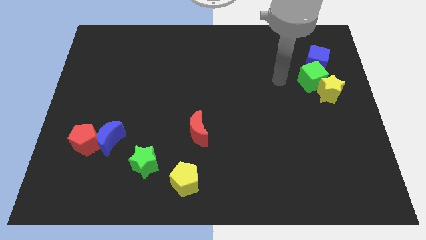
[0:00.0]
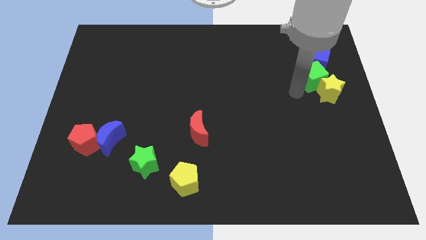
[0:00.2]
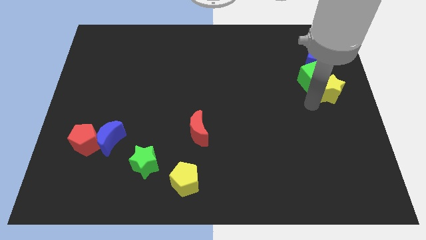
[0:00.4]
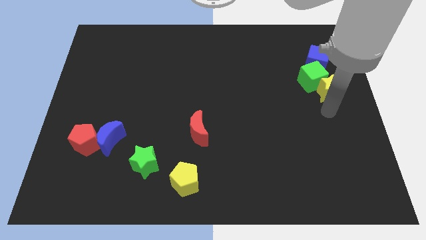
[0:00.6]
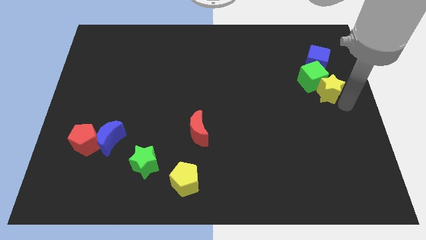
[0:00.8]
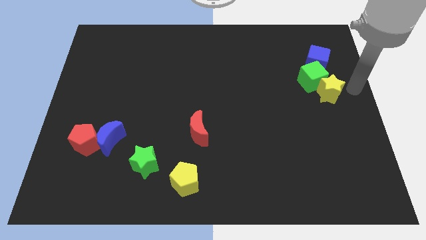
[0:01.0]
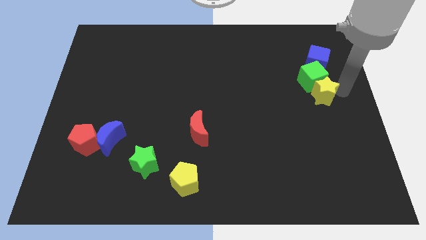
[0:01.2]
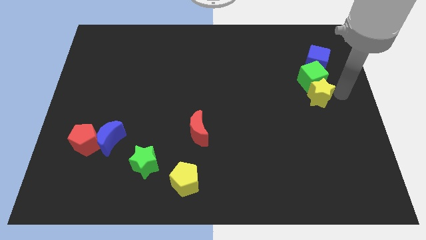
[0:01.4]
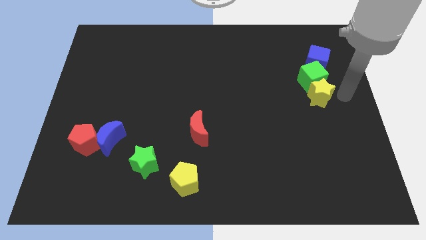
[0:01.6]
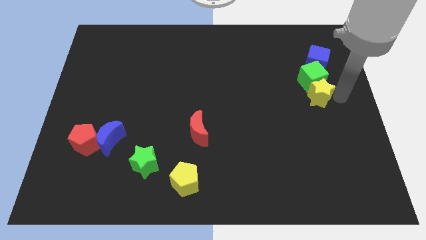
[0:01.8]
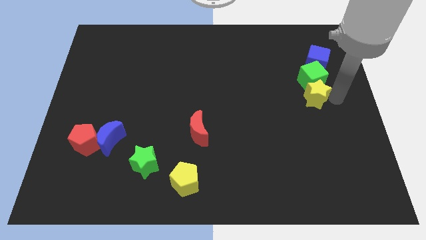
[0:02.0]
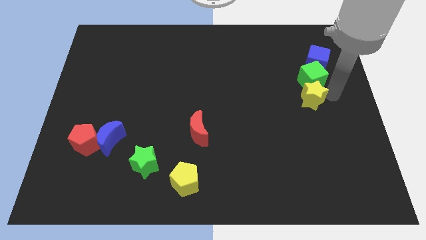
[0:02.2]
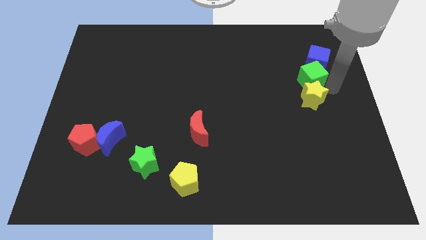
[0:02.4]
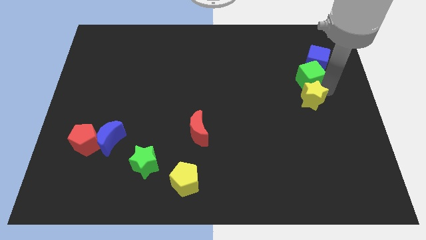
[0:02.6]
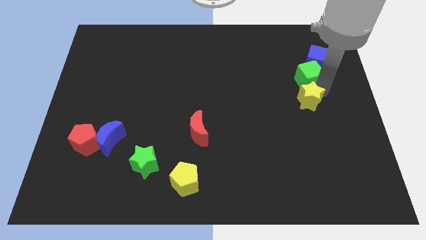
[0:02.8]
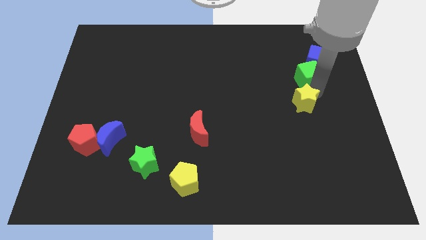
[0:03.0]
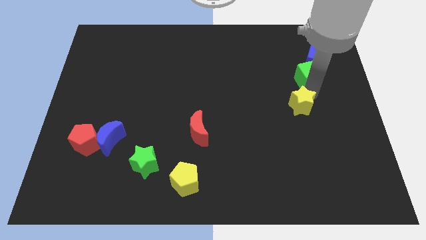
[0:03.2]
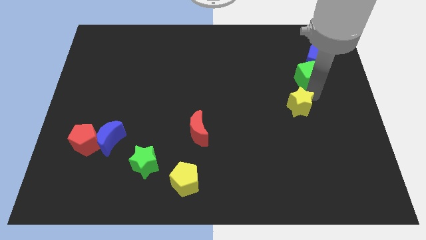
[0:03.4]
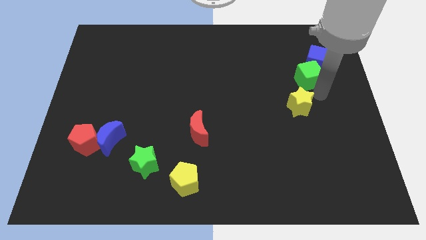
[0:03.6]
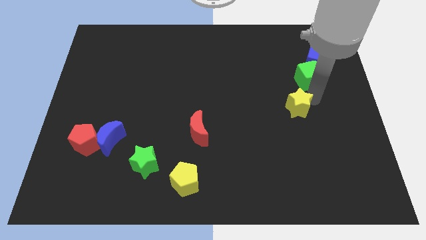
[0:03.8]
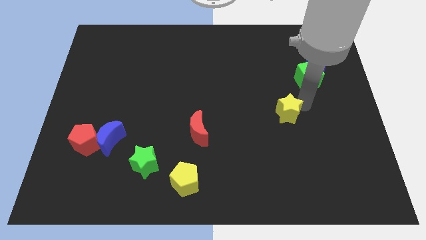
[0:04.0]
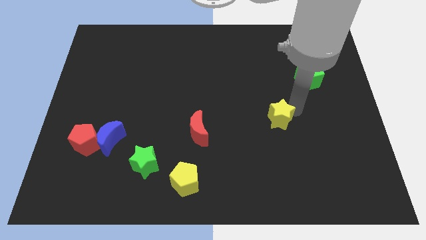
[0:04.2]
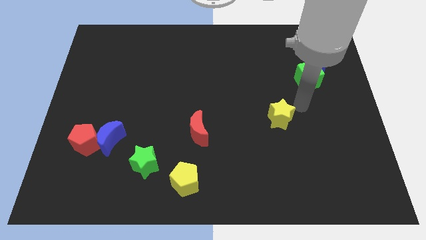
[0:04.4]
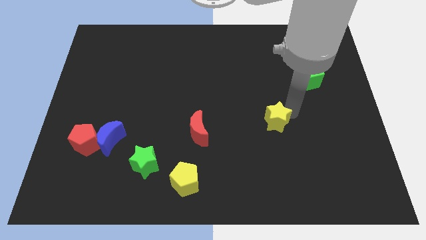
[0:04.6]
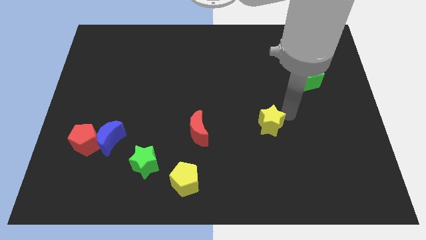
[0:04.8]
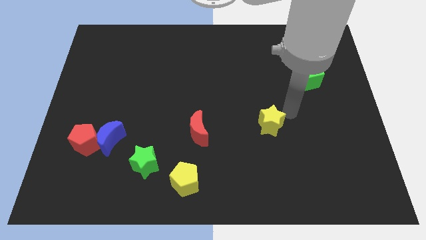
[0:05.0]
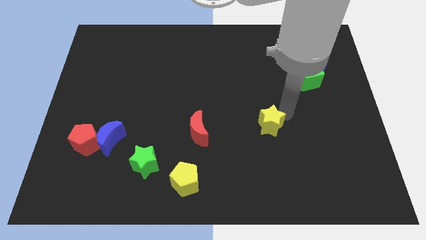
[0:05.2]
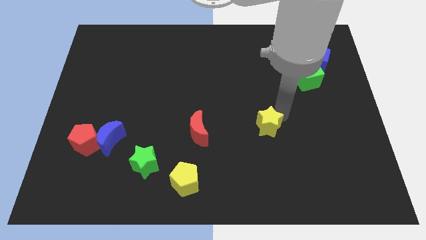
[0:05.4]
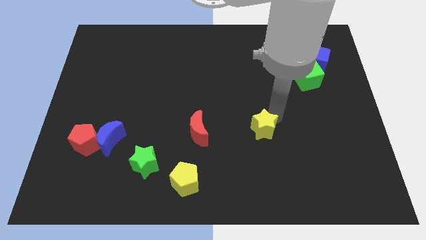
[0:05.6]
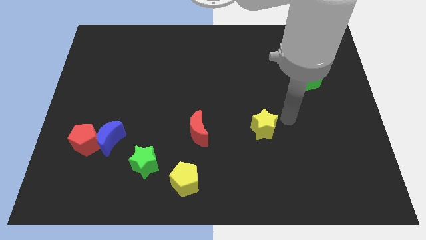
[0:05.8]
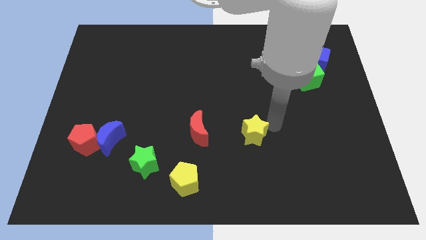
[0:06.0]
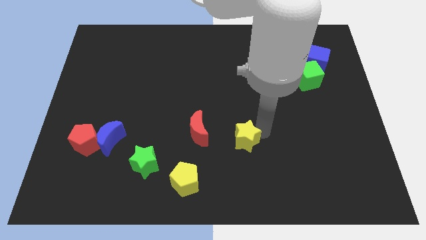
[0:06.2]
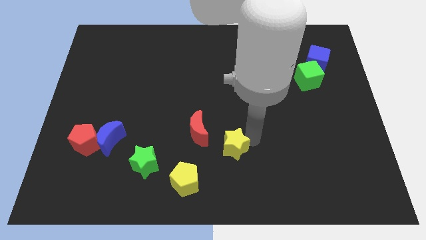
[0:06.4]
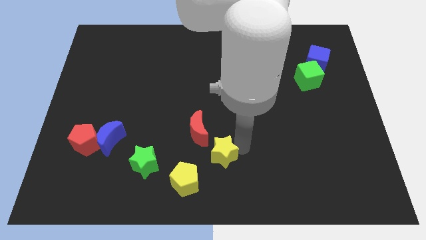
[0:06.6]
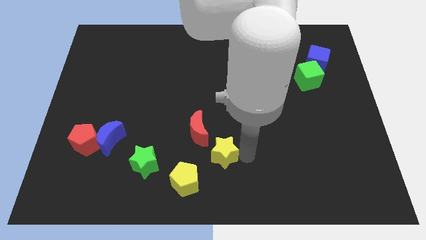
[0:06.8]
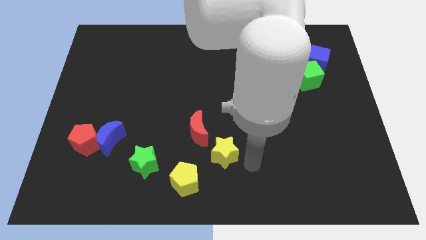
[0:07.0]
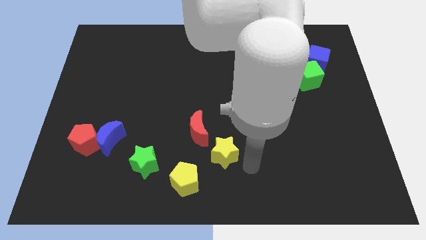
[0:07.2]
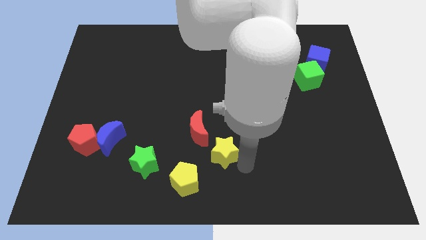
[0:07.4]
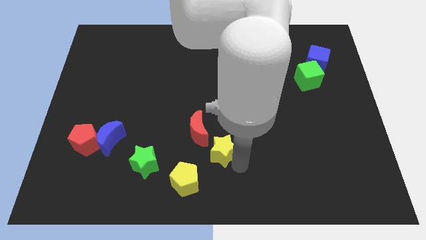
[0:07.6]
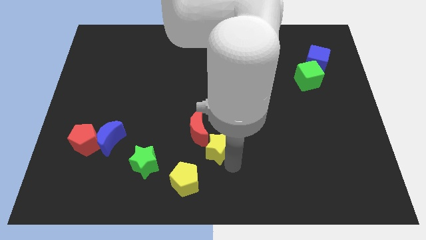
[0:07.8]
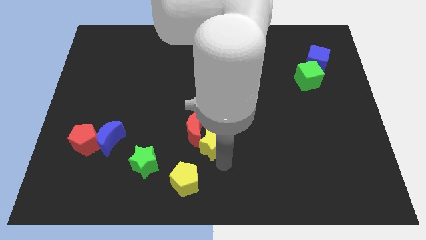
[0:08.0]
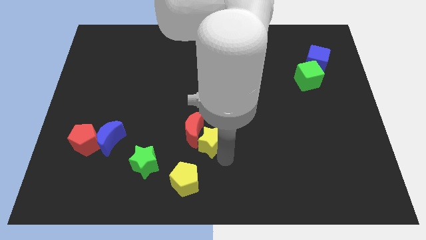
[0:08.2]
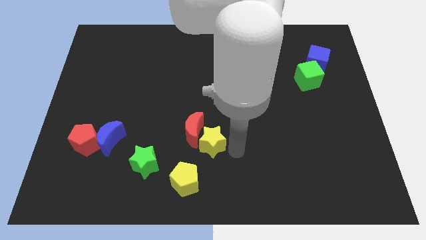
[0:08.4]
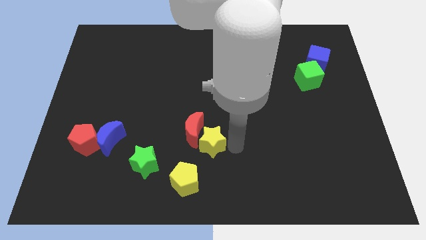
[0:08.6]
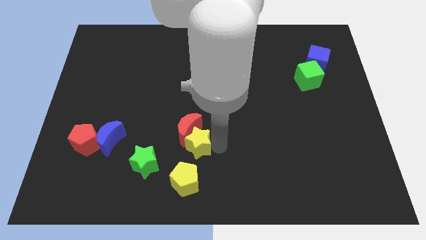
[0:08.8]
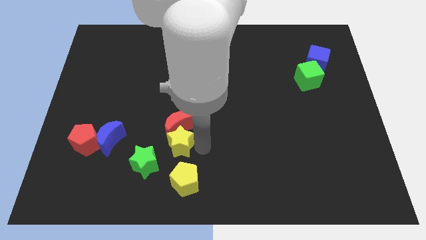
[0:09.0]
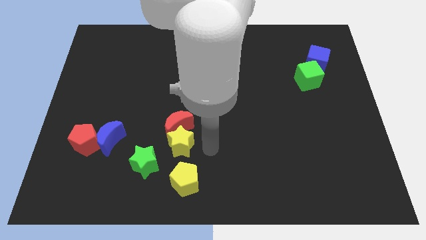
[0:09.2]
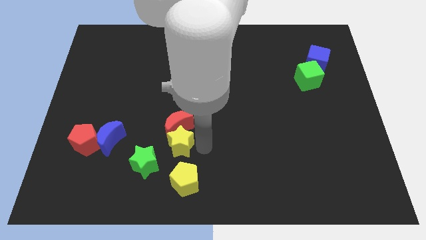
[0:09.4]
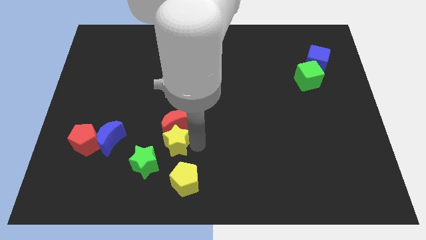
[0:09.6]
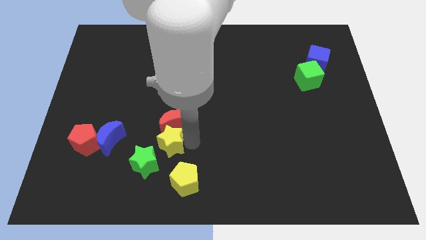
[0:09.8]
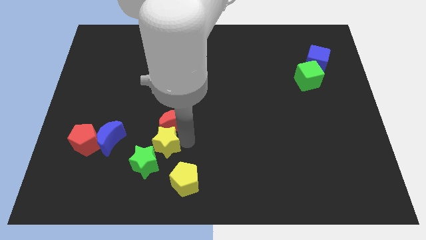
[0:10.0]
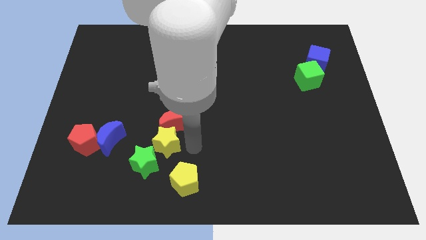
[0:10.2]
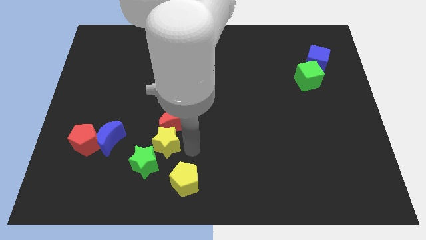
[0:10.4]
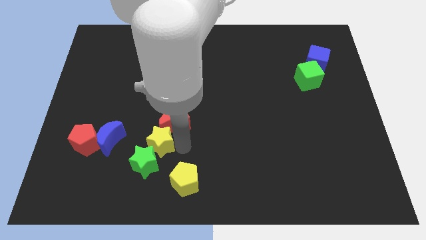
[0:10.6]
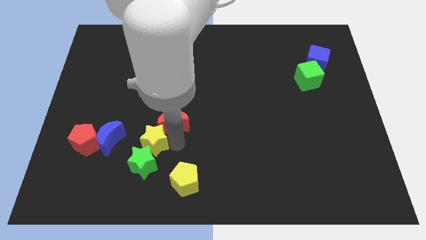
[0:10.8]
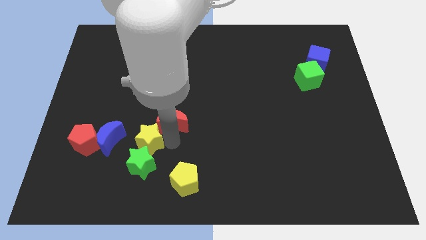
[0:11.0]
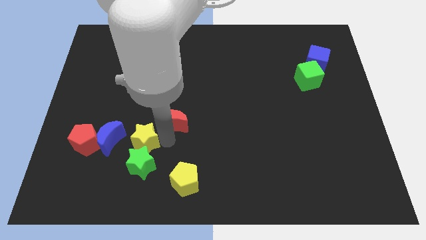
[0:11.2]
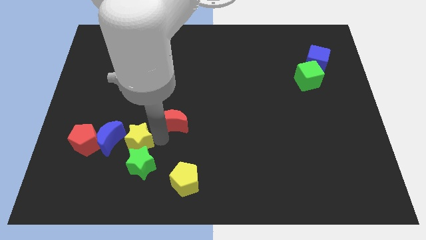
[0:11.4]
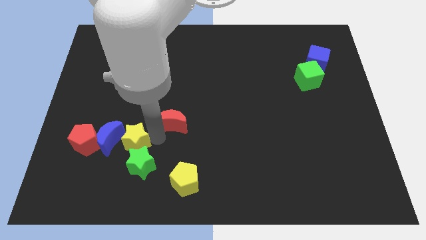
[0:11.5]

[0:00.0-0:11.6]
move the yellow star next to the blue moon
